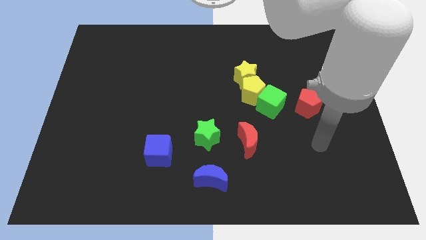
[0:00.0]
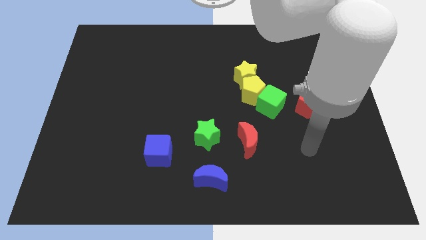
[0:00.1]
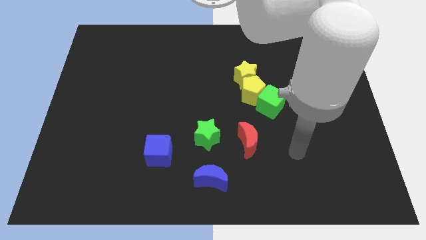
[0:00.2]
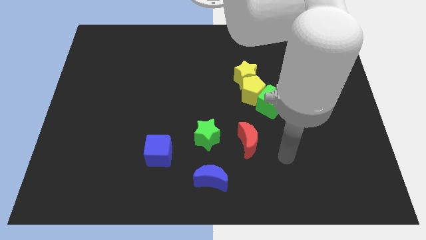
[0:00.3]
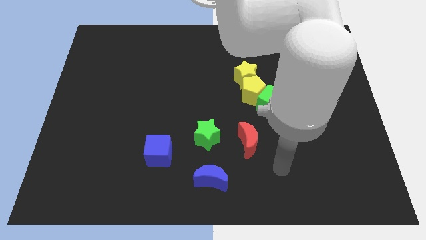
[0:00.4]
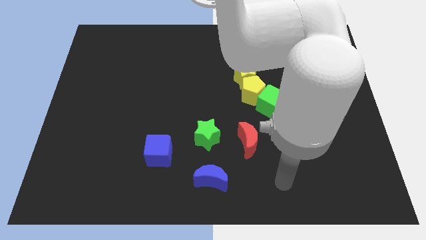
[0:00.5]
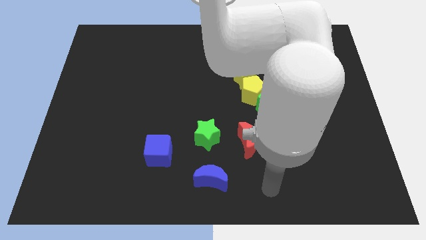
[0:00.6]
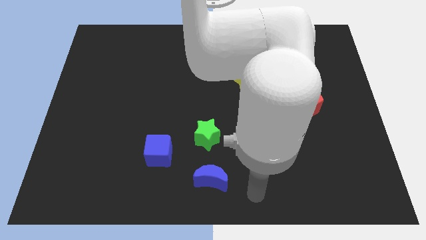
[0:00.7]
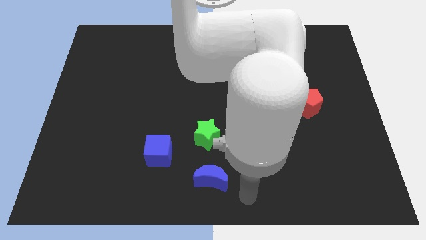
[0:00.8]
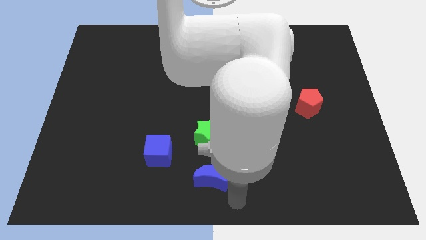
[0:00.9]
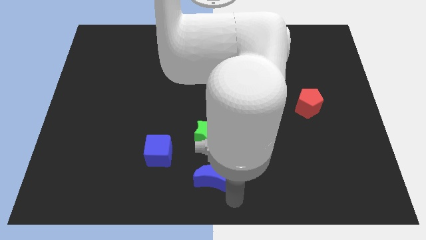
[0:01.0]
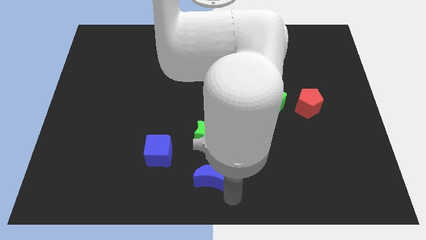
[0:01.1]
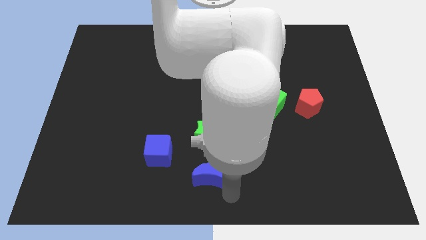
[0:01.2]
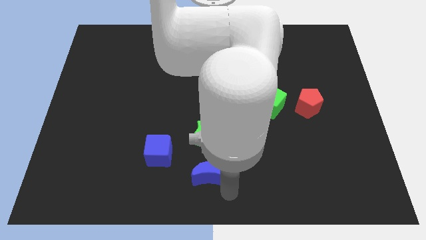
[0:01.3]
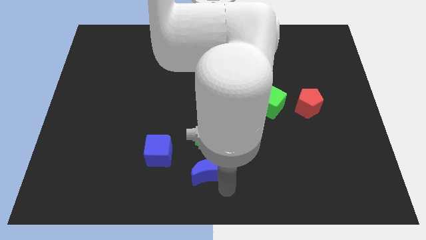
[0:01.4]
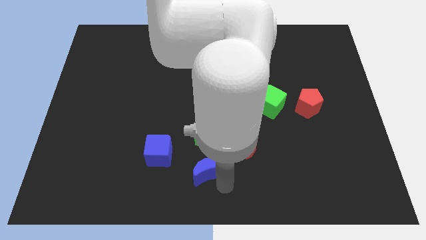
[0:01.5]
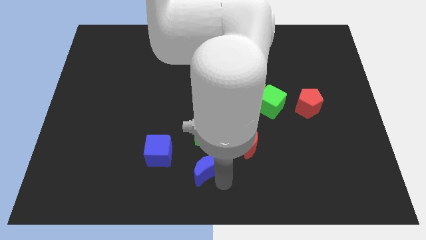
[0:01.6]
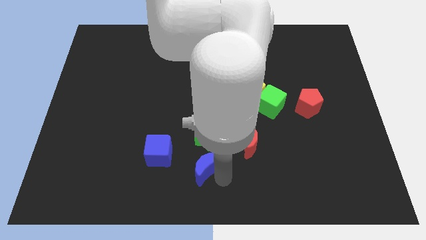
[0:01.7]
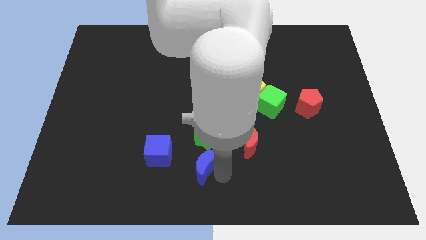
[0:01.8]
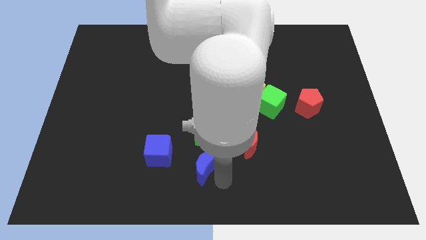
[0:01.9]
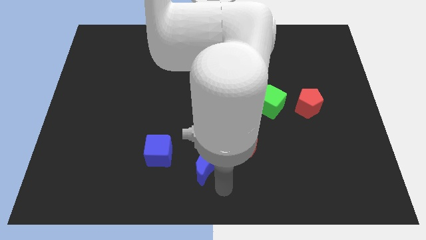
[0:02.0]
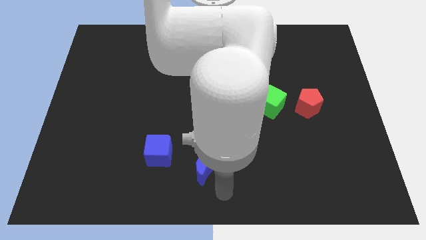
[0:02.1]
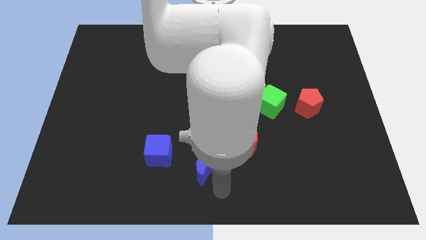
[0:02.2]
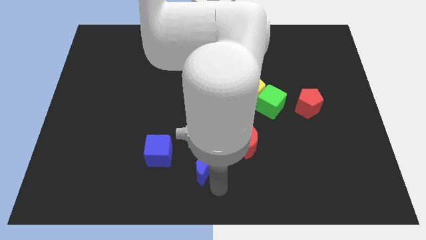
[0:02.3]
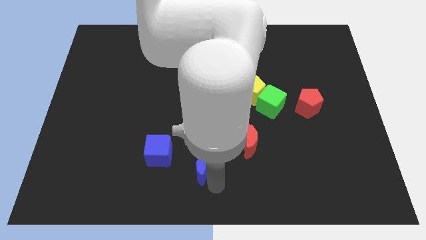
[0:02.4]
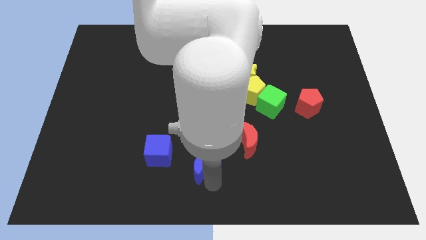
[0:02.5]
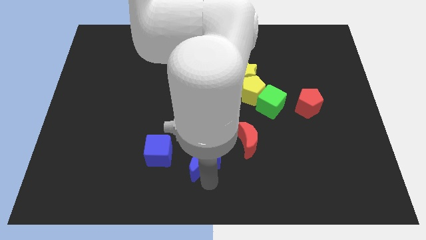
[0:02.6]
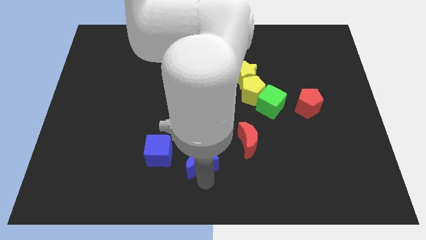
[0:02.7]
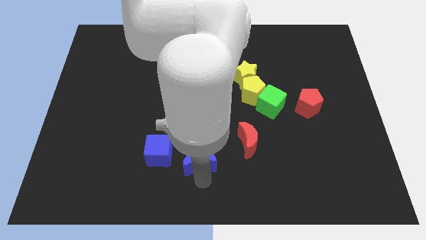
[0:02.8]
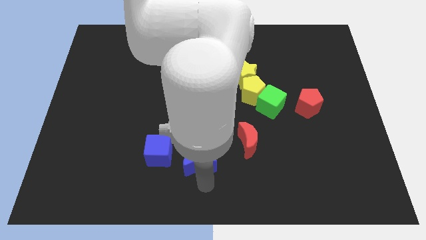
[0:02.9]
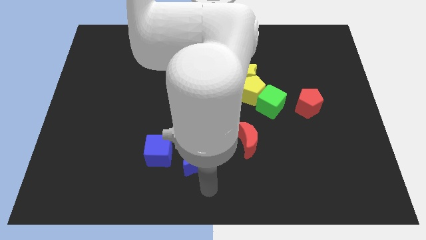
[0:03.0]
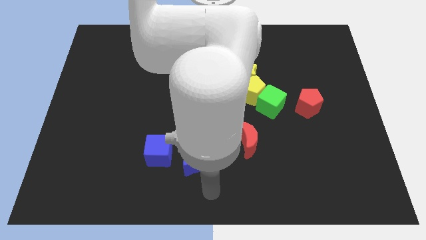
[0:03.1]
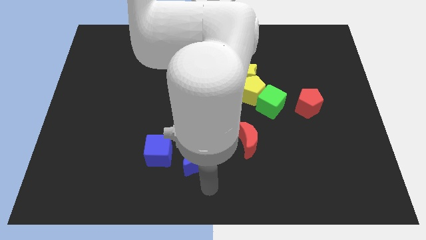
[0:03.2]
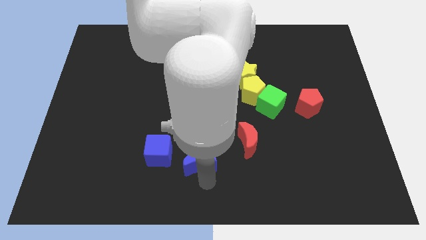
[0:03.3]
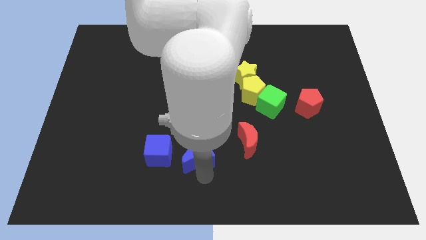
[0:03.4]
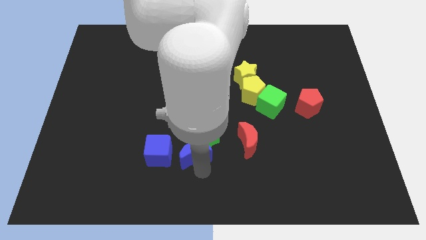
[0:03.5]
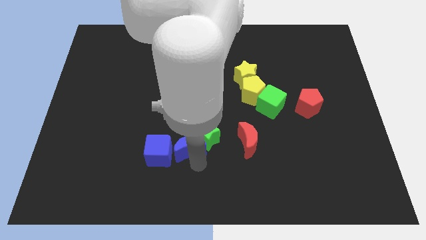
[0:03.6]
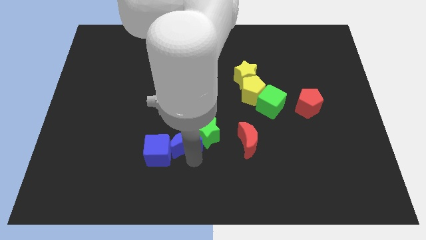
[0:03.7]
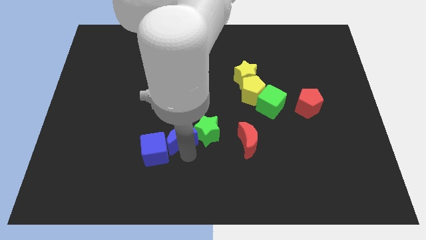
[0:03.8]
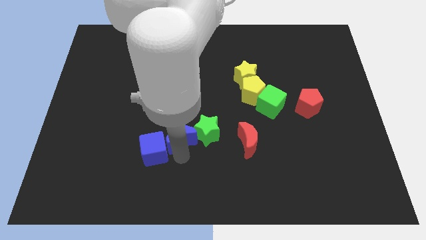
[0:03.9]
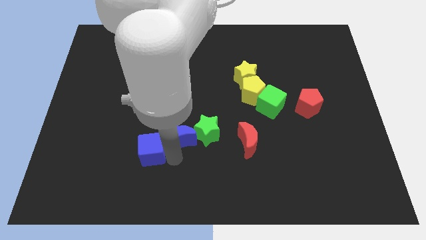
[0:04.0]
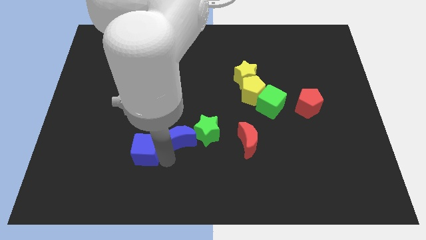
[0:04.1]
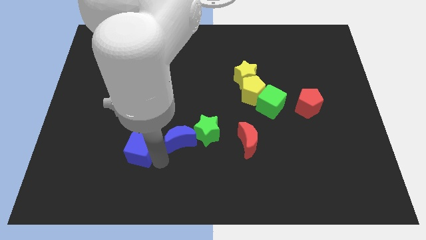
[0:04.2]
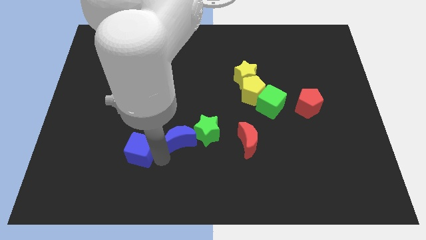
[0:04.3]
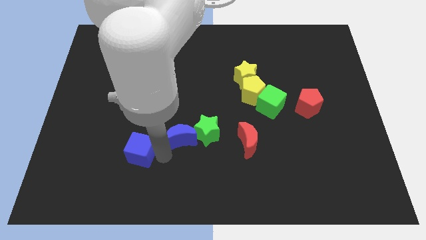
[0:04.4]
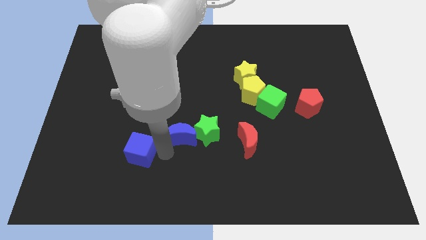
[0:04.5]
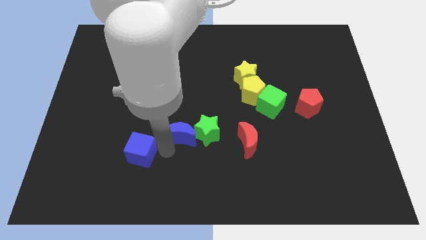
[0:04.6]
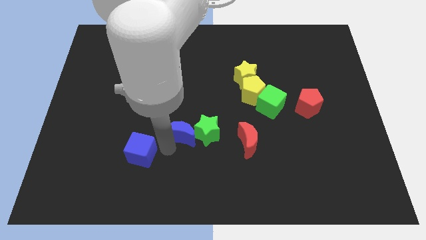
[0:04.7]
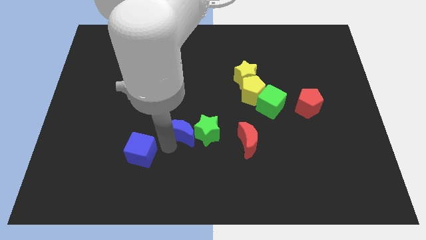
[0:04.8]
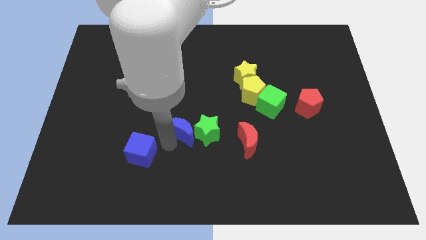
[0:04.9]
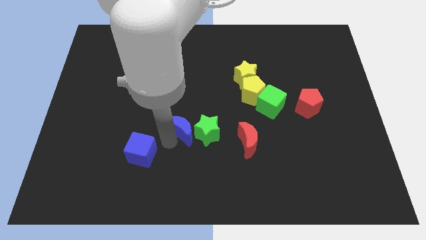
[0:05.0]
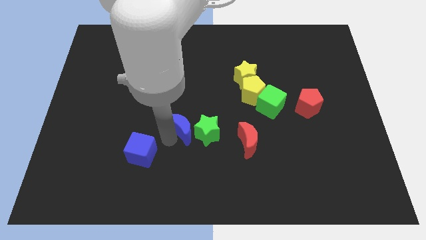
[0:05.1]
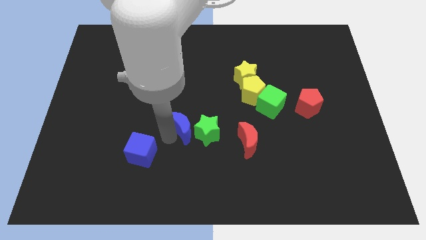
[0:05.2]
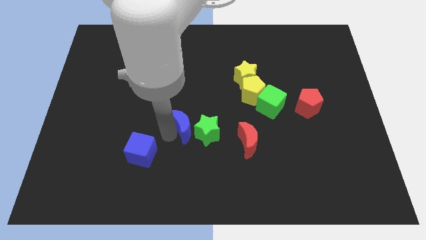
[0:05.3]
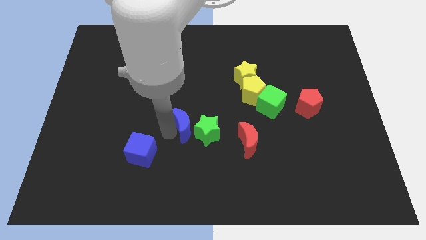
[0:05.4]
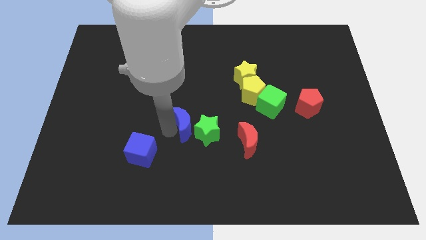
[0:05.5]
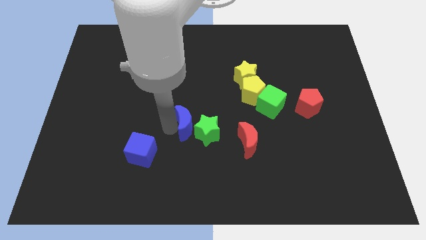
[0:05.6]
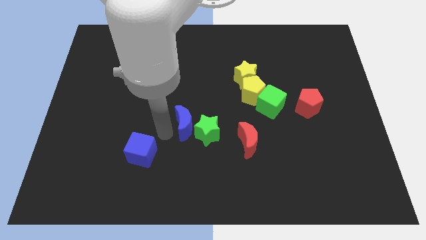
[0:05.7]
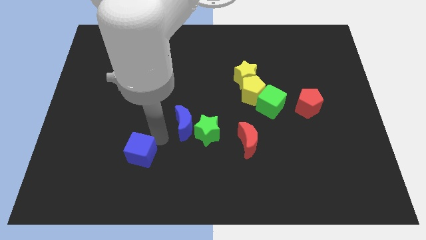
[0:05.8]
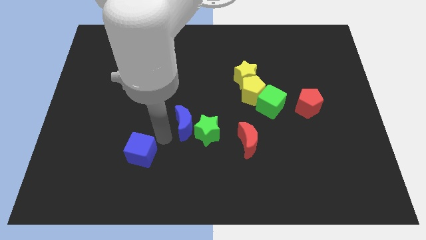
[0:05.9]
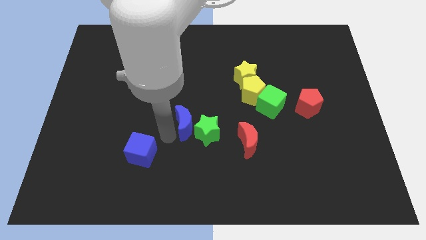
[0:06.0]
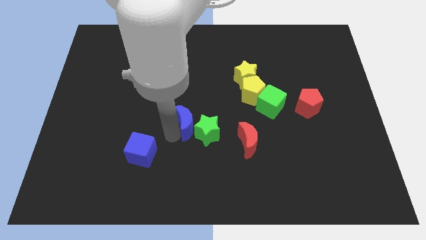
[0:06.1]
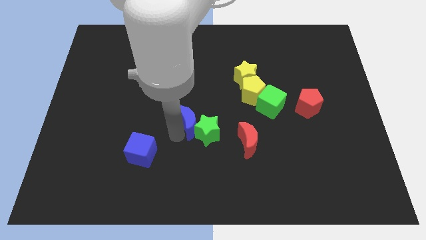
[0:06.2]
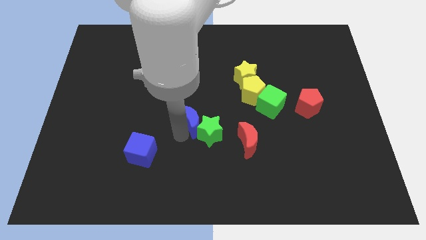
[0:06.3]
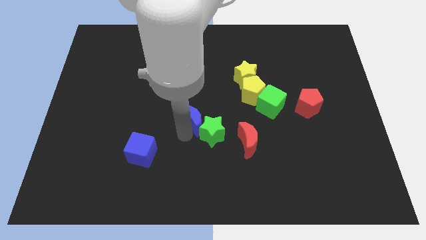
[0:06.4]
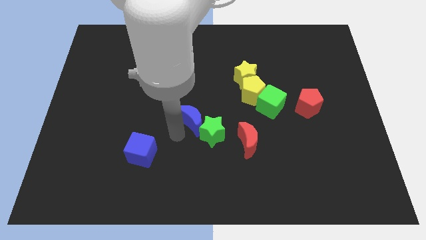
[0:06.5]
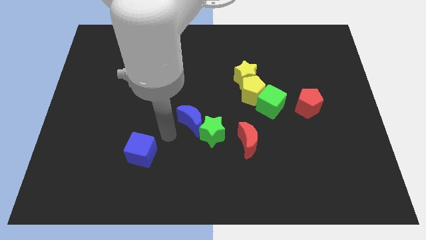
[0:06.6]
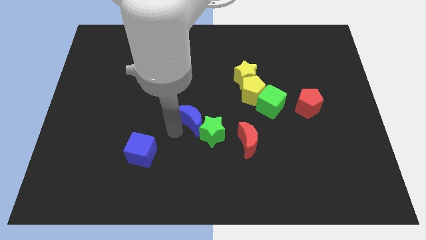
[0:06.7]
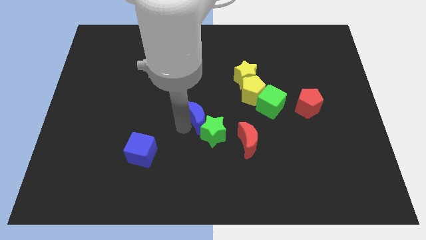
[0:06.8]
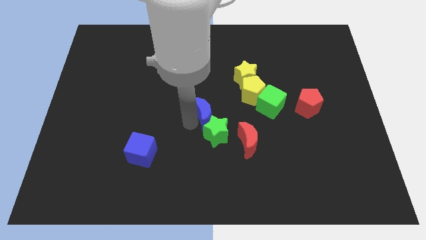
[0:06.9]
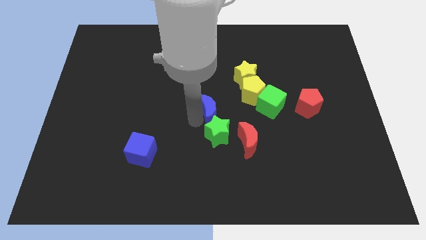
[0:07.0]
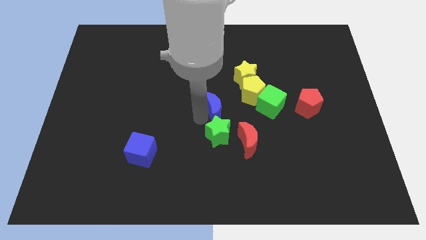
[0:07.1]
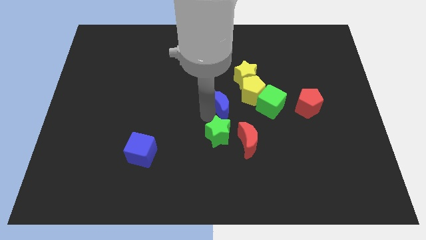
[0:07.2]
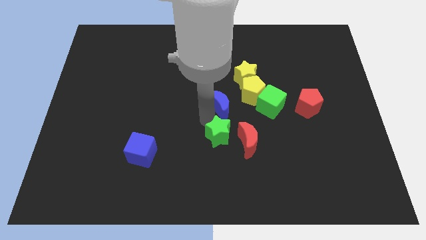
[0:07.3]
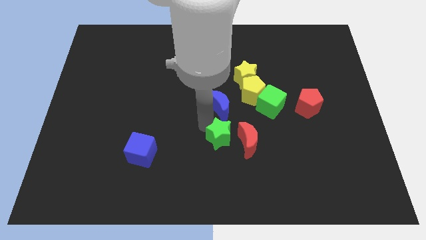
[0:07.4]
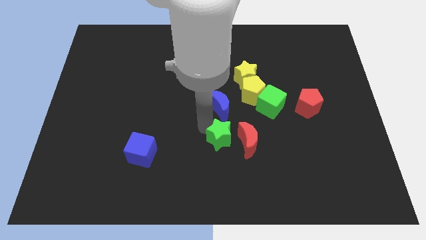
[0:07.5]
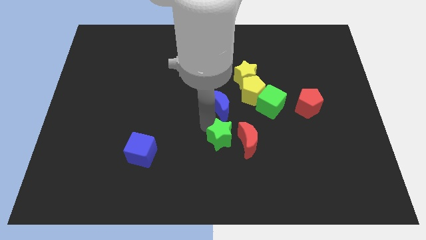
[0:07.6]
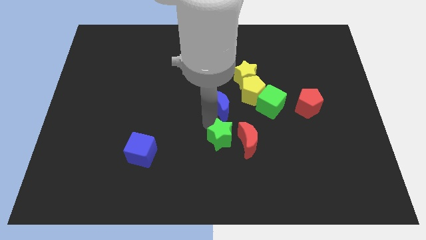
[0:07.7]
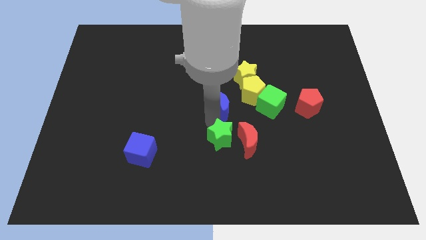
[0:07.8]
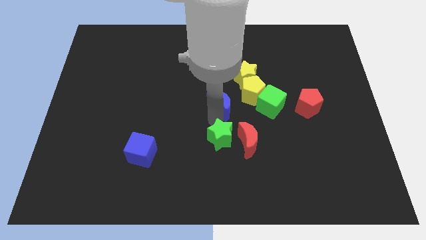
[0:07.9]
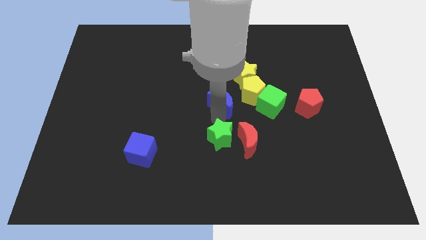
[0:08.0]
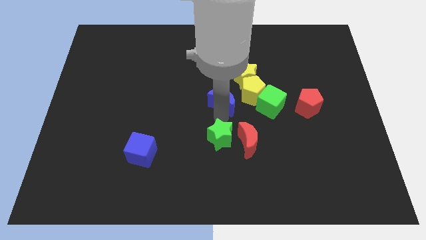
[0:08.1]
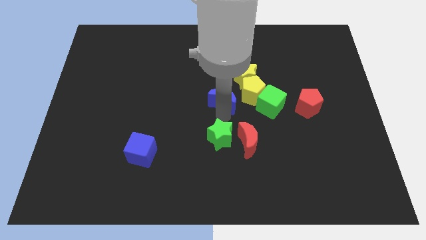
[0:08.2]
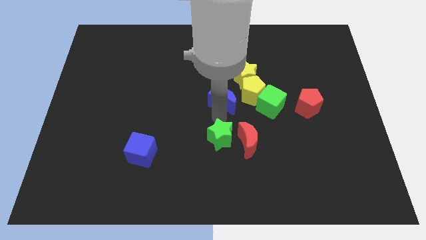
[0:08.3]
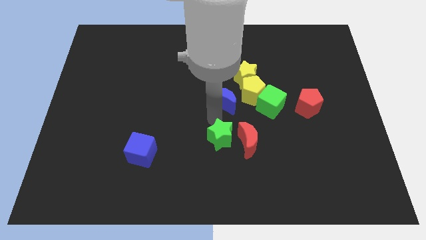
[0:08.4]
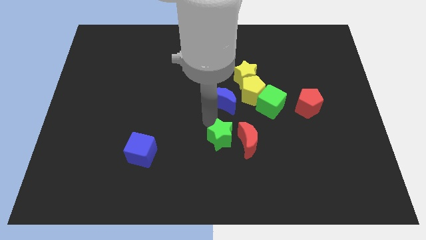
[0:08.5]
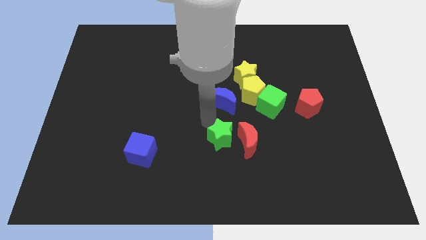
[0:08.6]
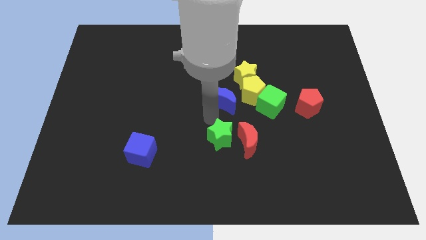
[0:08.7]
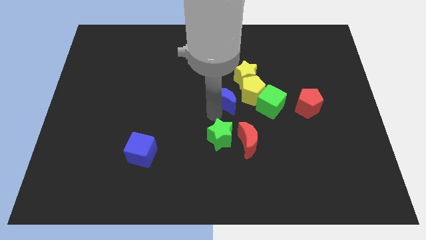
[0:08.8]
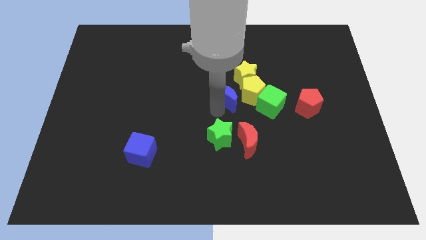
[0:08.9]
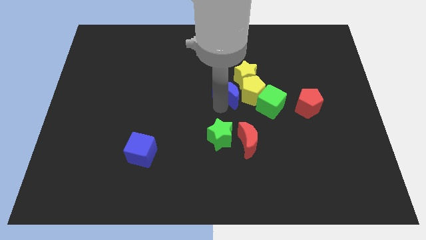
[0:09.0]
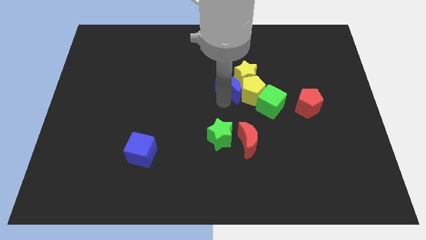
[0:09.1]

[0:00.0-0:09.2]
slide the blue moon next to the yellow star
